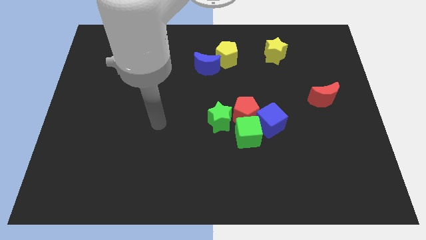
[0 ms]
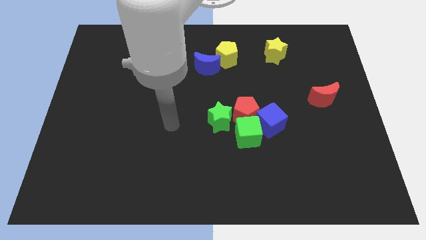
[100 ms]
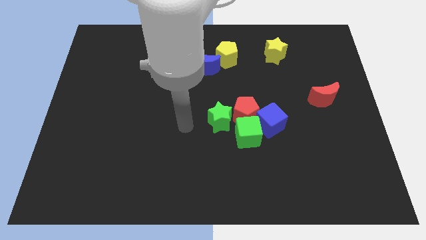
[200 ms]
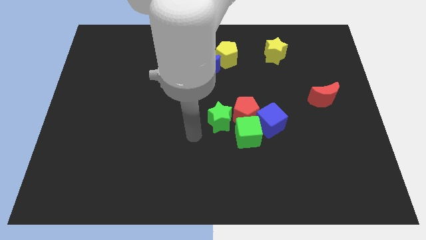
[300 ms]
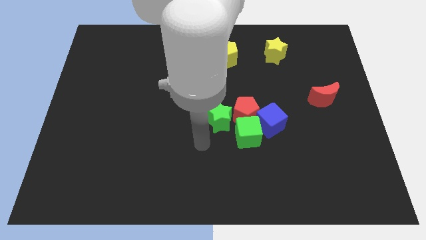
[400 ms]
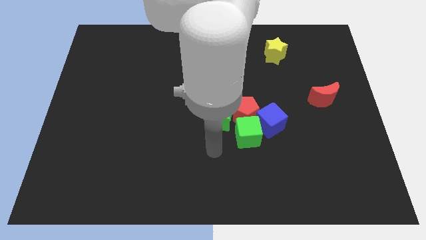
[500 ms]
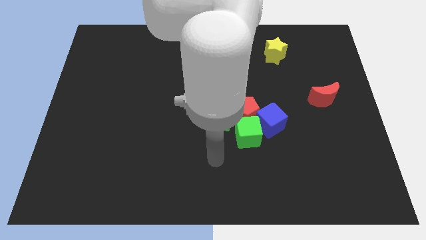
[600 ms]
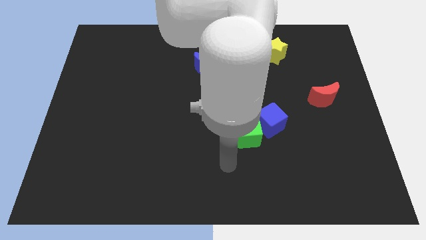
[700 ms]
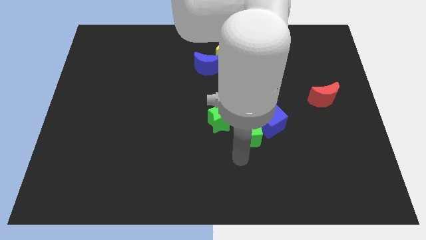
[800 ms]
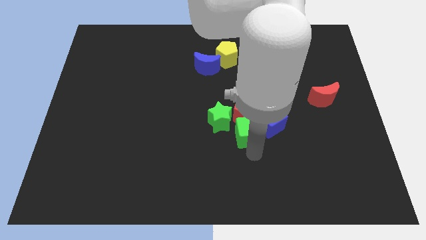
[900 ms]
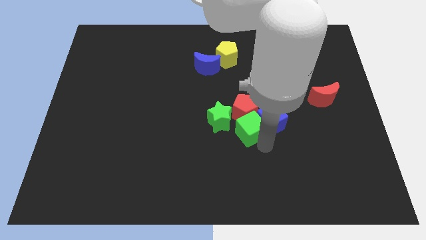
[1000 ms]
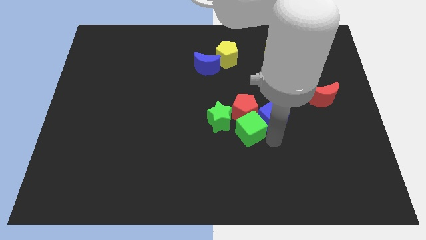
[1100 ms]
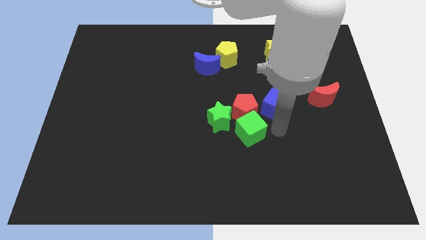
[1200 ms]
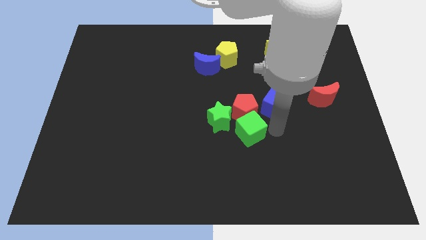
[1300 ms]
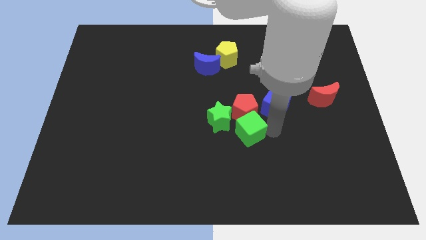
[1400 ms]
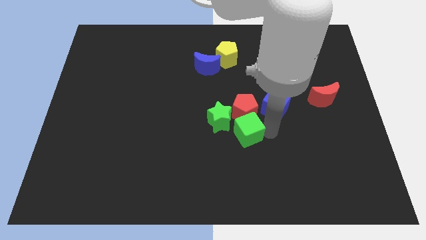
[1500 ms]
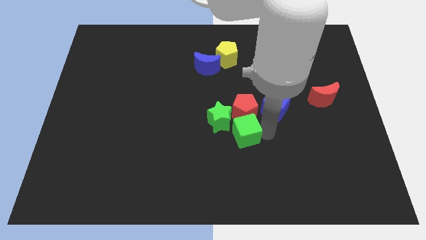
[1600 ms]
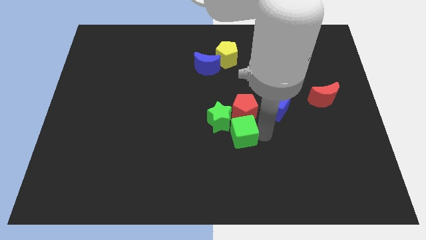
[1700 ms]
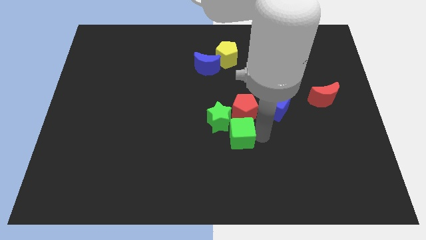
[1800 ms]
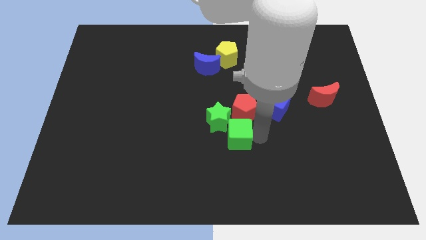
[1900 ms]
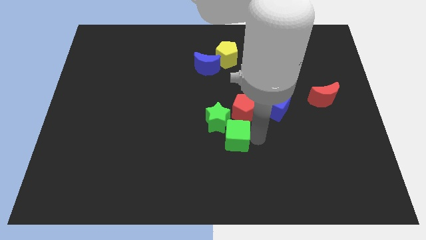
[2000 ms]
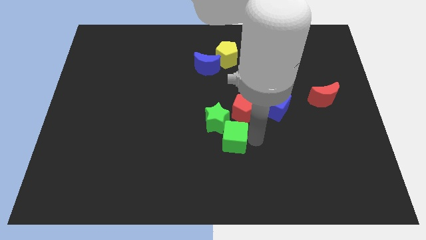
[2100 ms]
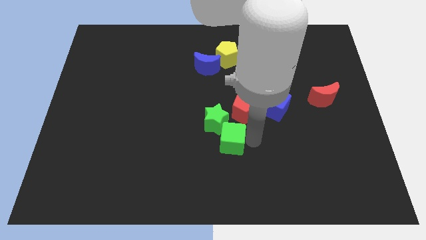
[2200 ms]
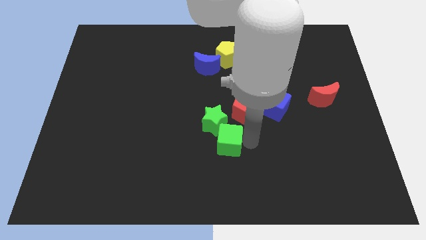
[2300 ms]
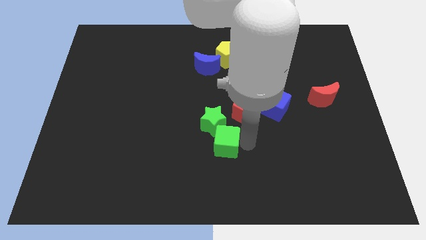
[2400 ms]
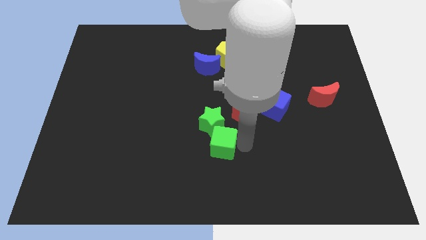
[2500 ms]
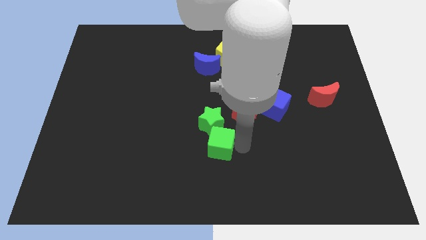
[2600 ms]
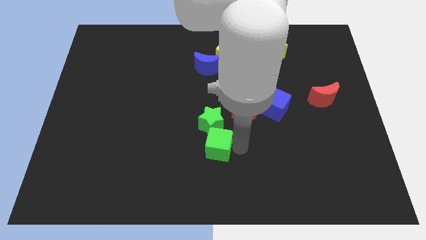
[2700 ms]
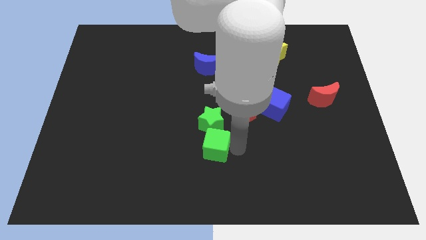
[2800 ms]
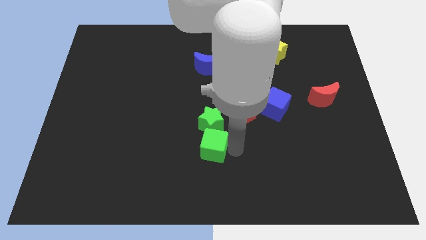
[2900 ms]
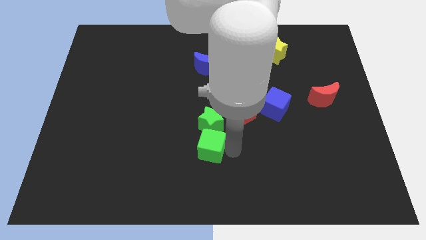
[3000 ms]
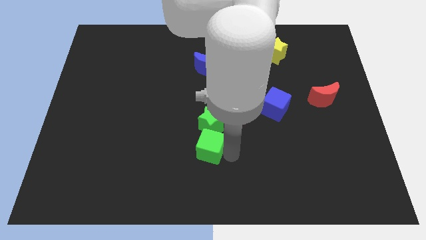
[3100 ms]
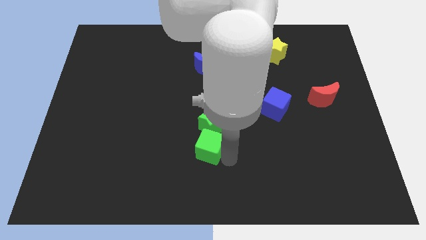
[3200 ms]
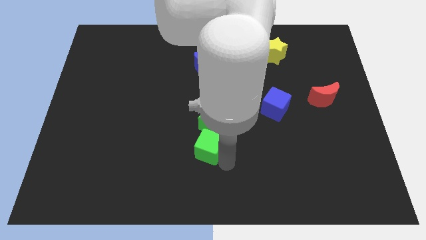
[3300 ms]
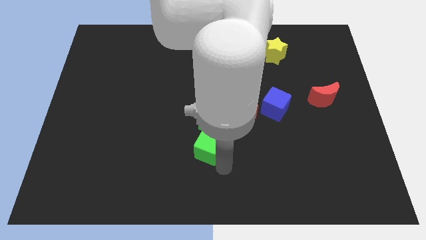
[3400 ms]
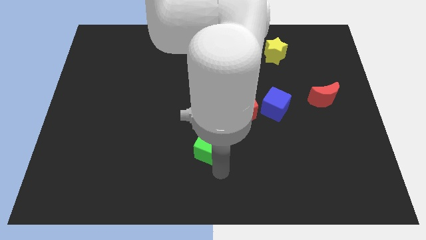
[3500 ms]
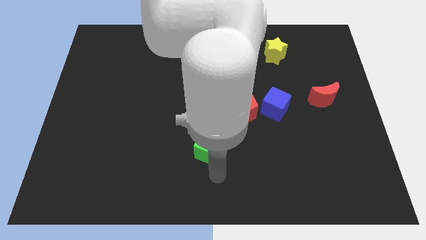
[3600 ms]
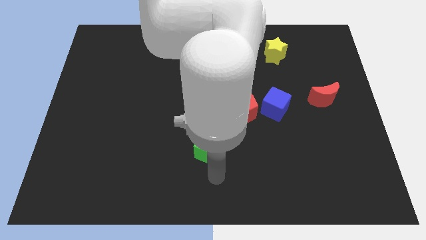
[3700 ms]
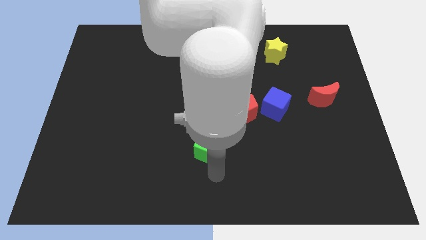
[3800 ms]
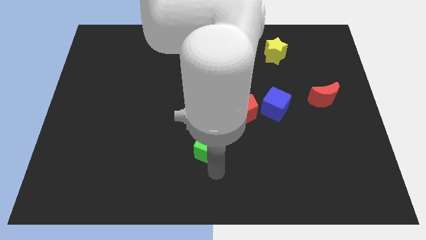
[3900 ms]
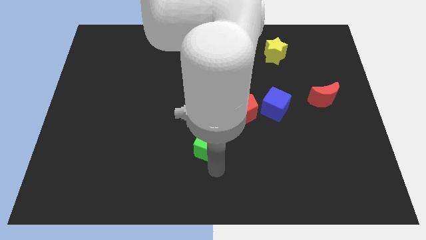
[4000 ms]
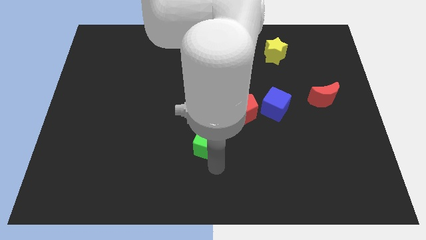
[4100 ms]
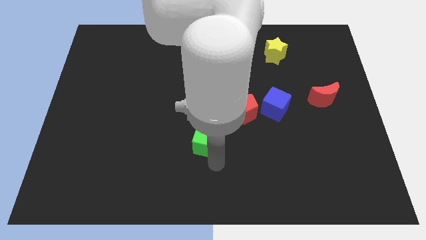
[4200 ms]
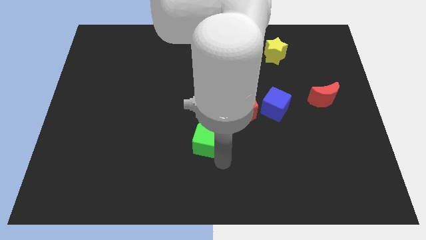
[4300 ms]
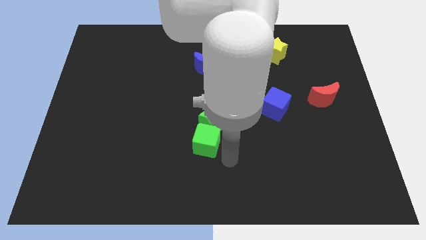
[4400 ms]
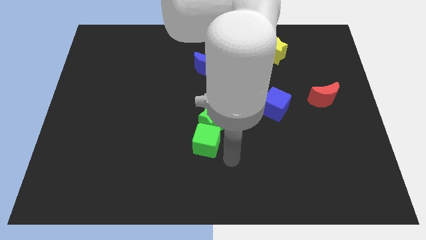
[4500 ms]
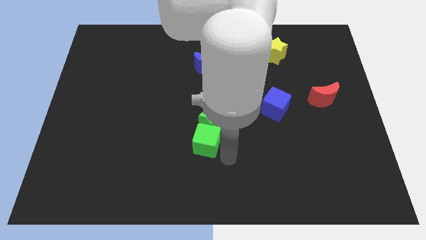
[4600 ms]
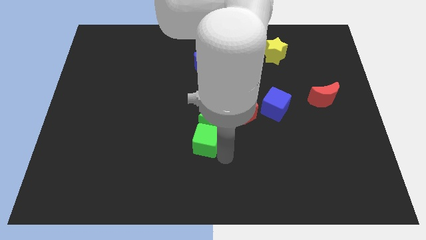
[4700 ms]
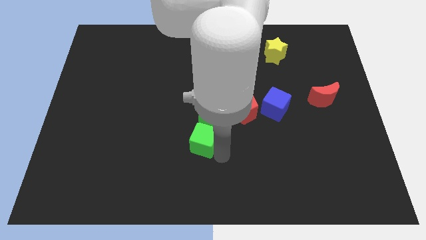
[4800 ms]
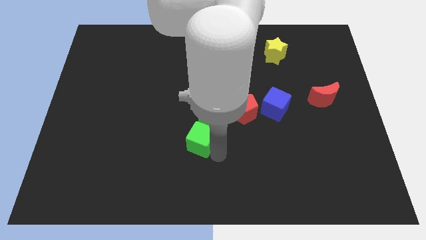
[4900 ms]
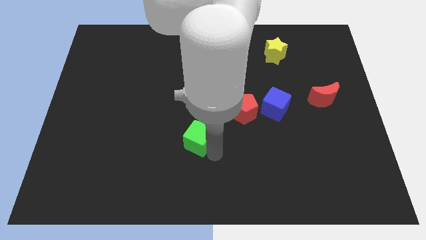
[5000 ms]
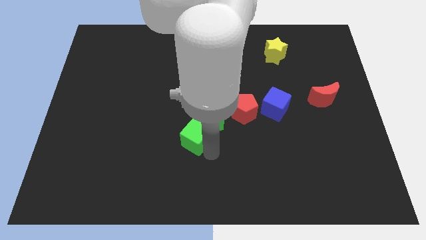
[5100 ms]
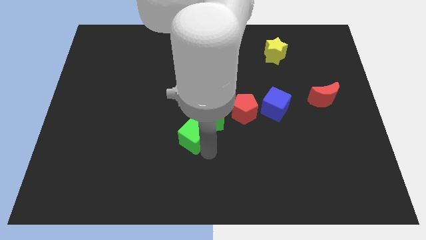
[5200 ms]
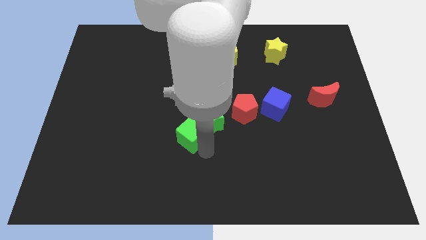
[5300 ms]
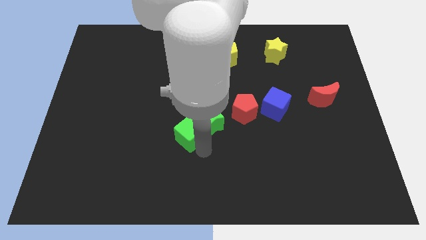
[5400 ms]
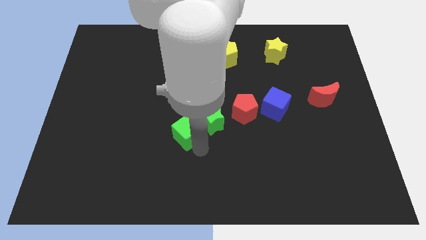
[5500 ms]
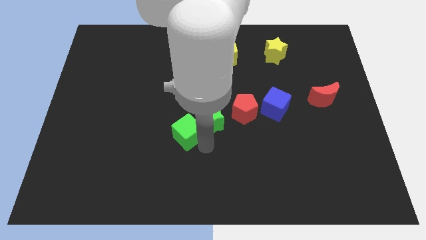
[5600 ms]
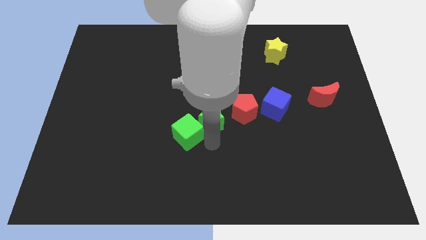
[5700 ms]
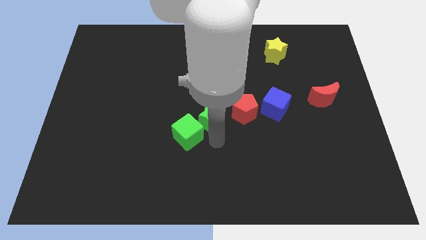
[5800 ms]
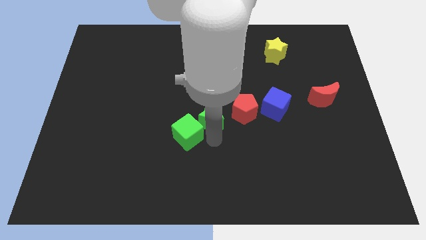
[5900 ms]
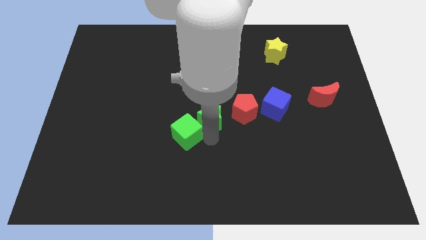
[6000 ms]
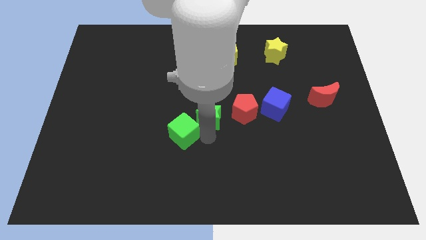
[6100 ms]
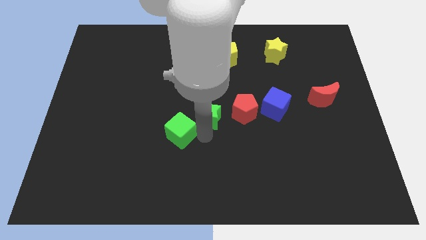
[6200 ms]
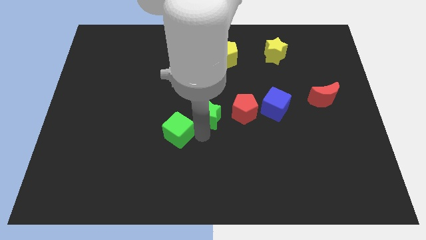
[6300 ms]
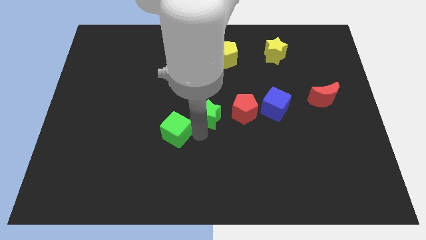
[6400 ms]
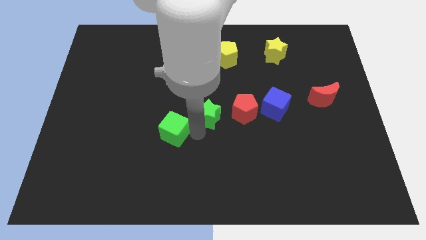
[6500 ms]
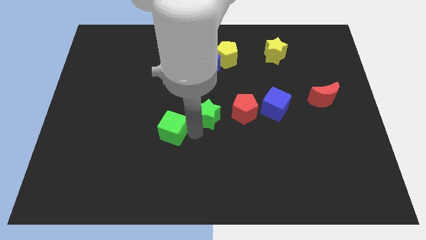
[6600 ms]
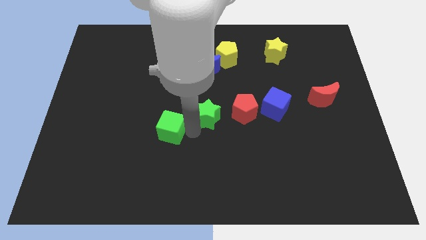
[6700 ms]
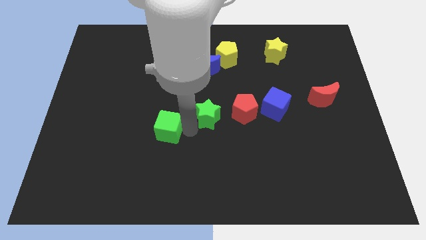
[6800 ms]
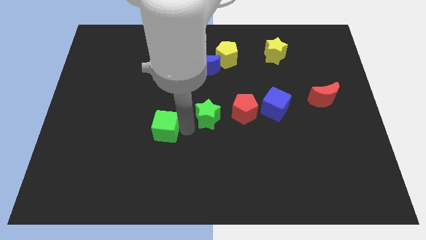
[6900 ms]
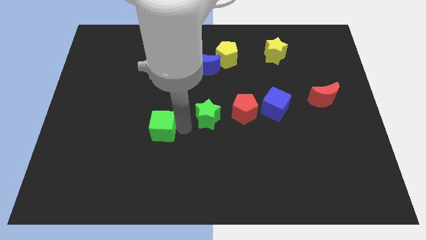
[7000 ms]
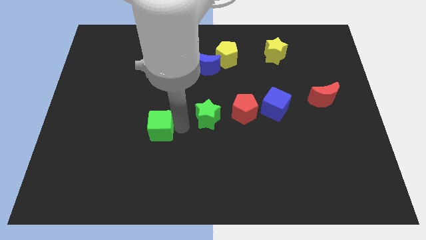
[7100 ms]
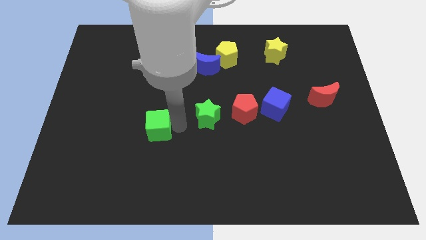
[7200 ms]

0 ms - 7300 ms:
push the green cube left

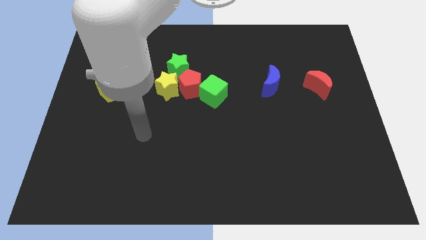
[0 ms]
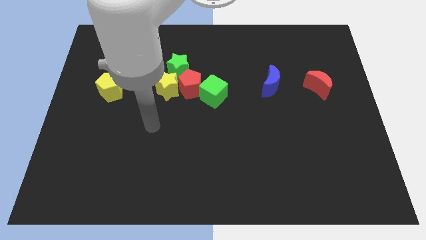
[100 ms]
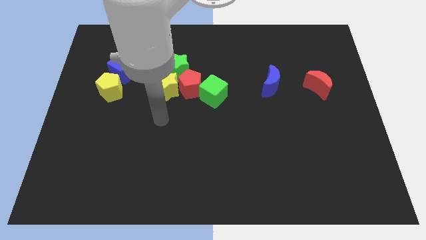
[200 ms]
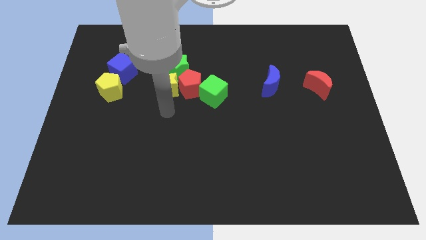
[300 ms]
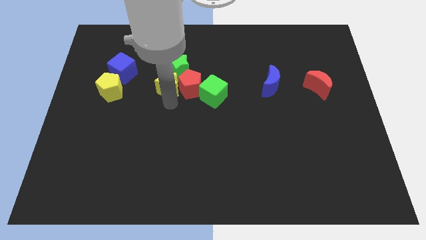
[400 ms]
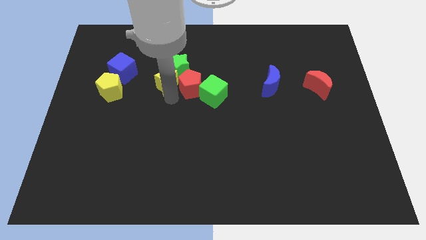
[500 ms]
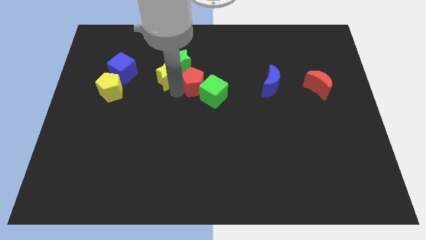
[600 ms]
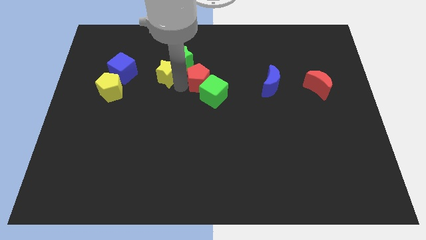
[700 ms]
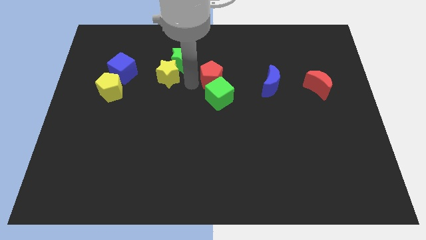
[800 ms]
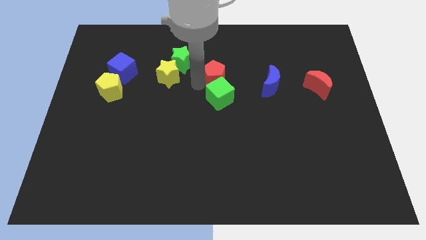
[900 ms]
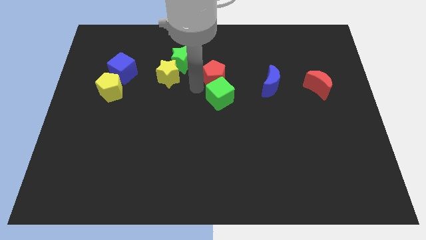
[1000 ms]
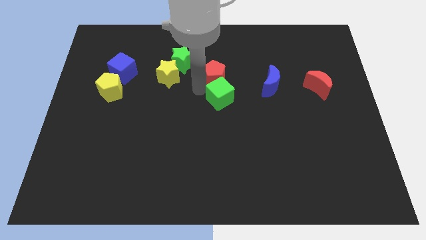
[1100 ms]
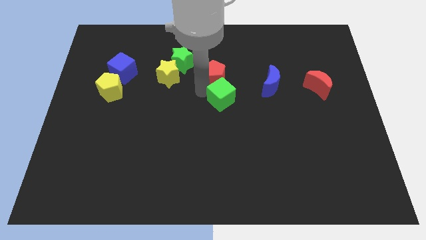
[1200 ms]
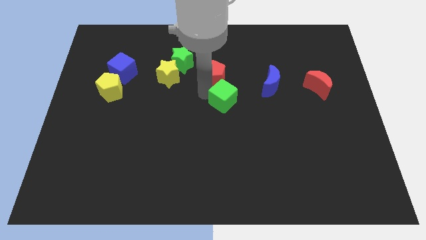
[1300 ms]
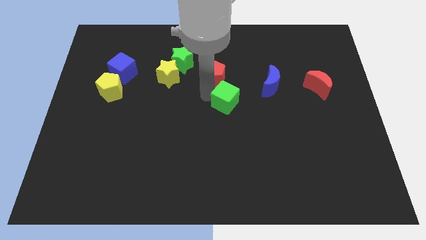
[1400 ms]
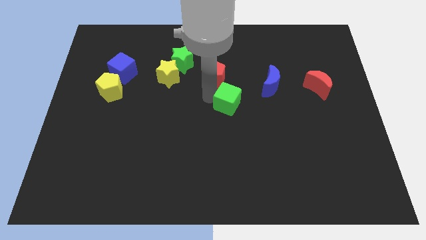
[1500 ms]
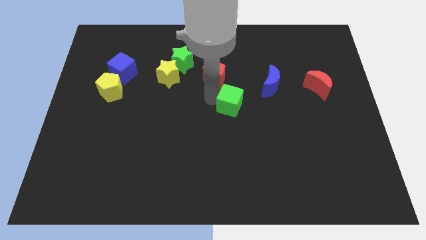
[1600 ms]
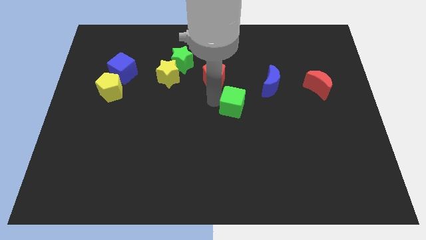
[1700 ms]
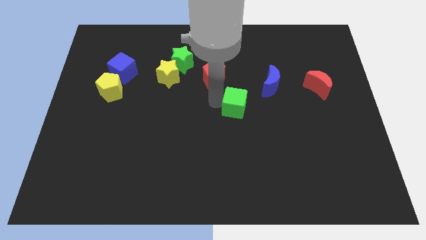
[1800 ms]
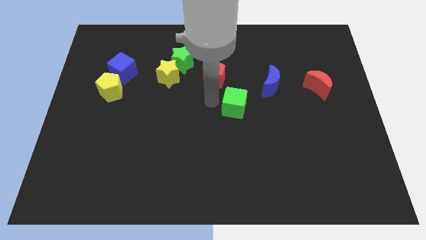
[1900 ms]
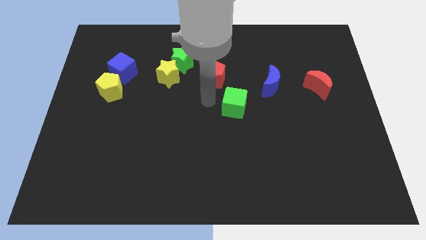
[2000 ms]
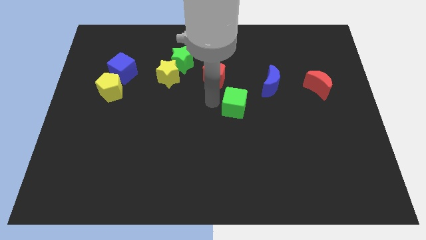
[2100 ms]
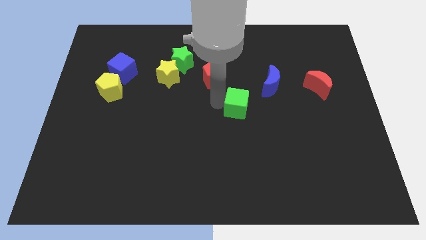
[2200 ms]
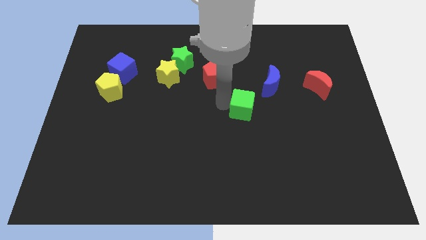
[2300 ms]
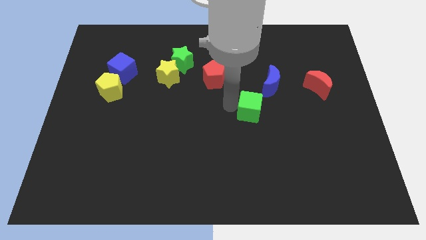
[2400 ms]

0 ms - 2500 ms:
move the green cube right a little bit
